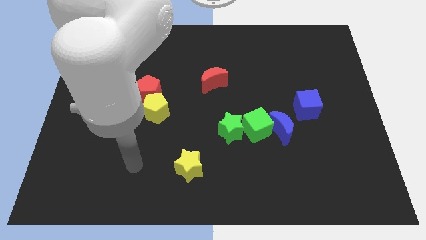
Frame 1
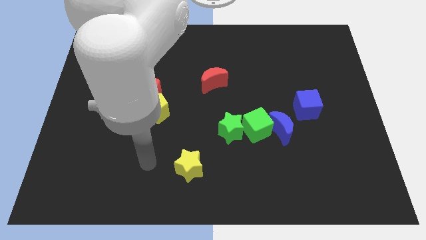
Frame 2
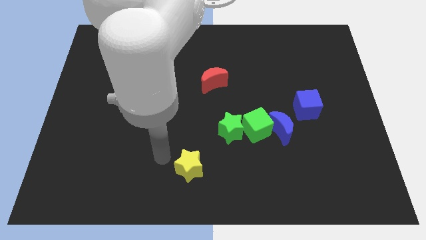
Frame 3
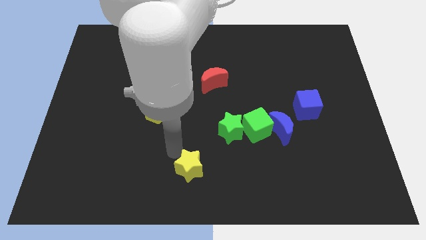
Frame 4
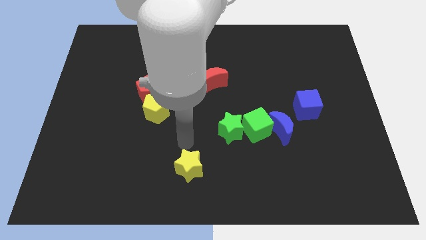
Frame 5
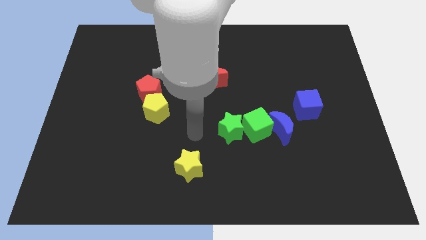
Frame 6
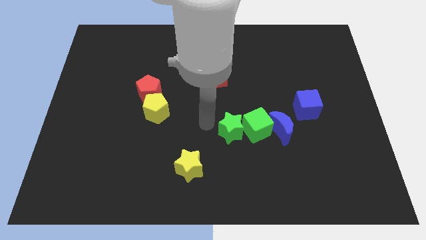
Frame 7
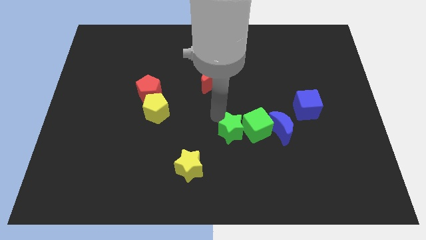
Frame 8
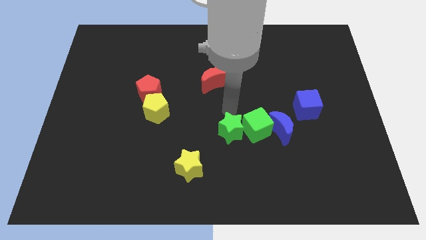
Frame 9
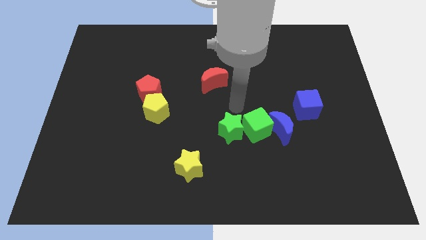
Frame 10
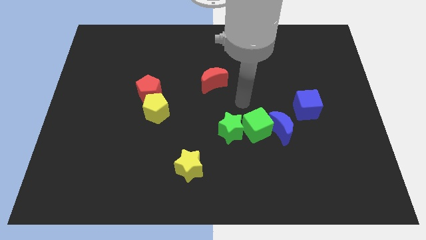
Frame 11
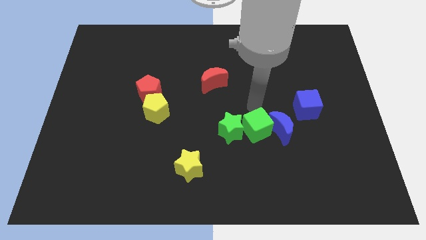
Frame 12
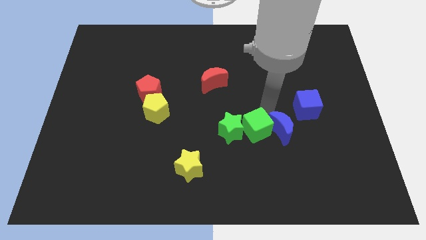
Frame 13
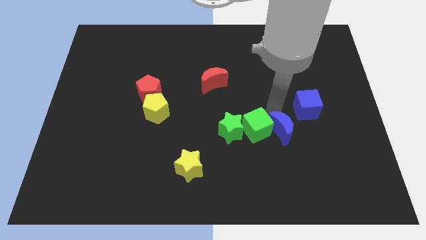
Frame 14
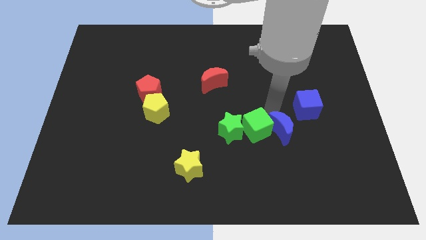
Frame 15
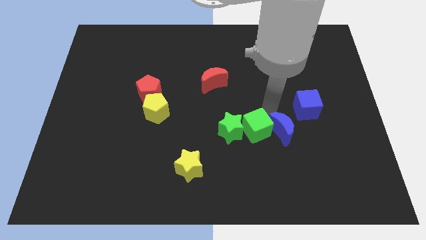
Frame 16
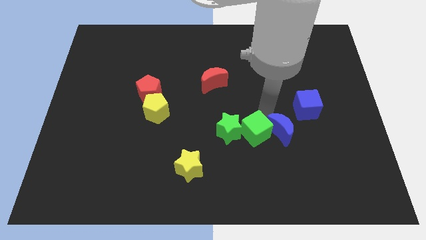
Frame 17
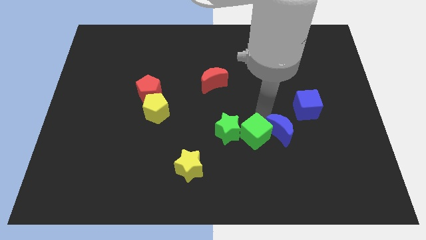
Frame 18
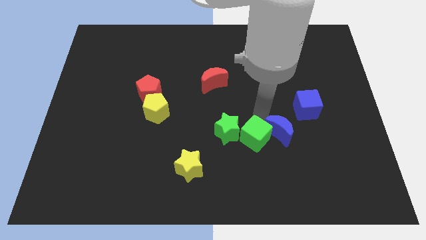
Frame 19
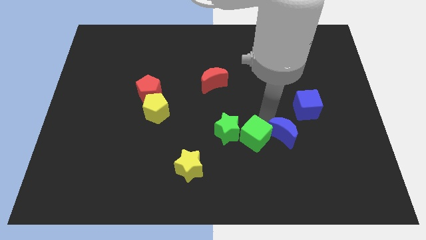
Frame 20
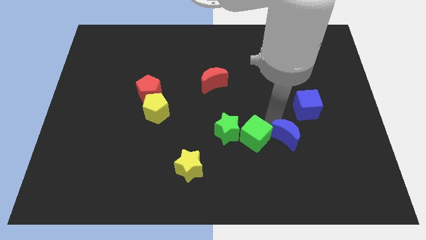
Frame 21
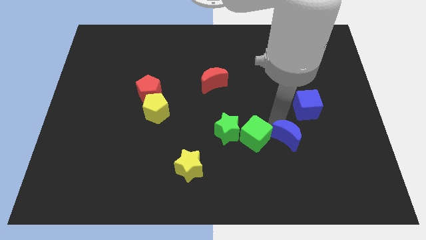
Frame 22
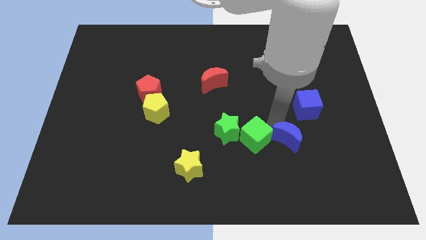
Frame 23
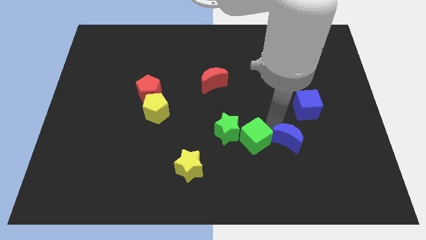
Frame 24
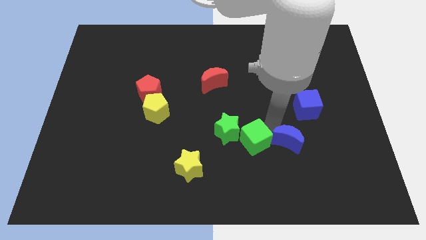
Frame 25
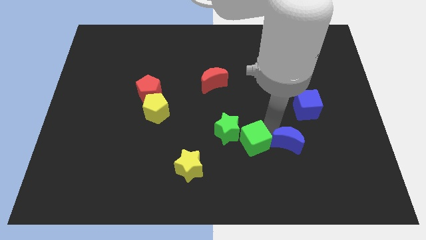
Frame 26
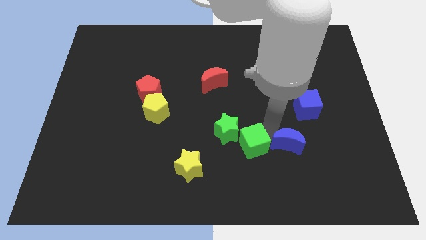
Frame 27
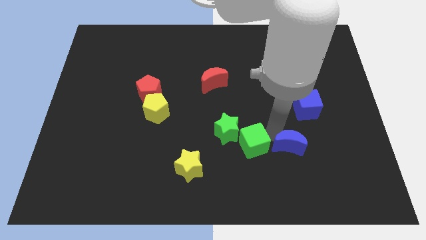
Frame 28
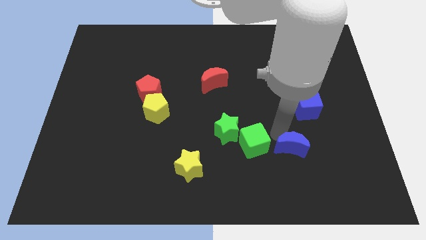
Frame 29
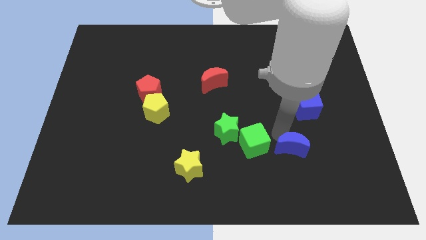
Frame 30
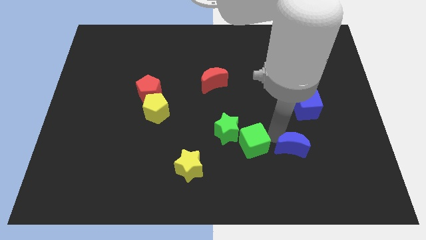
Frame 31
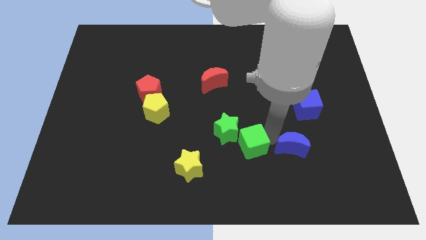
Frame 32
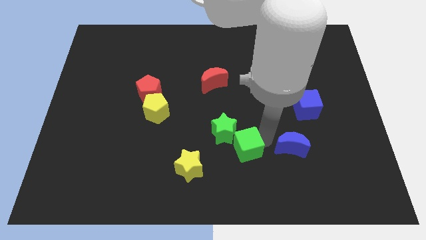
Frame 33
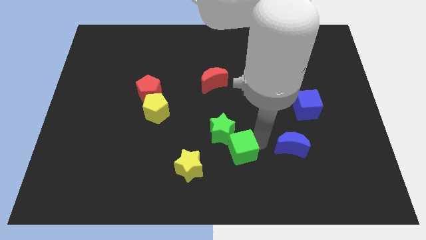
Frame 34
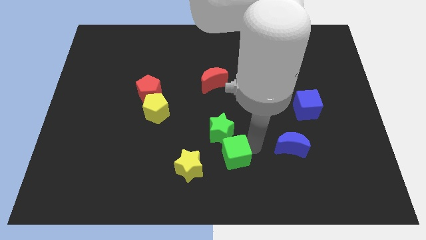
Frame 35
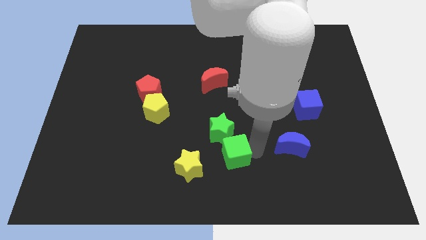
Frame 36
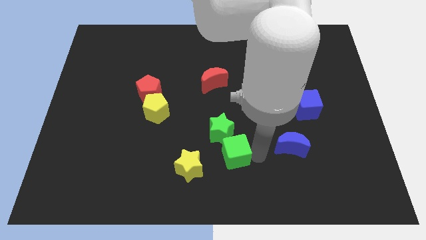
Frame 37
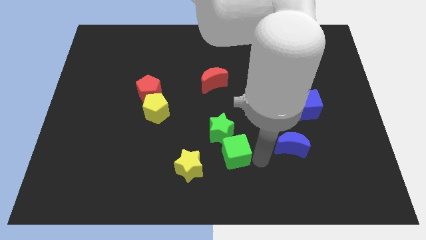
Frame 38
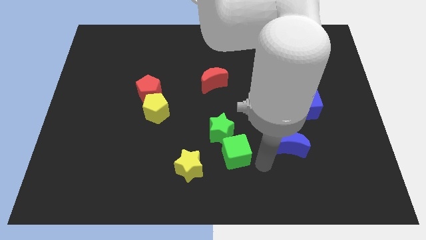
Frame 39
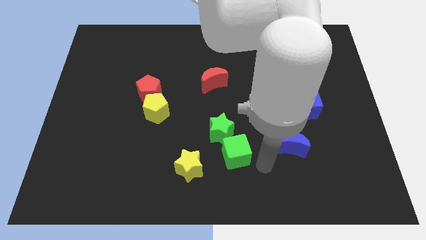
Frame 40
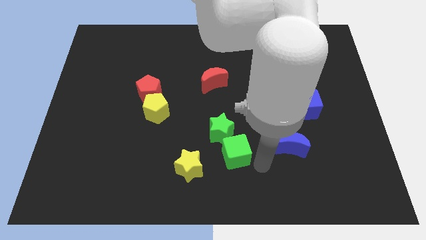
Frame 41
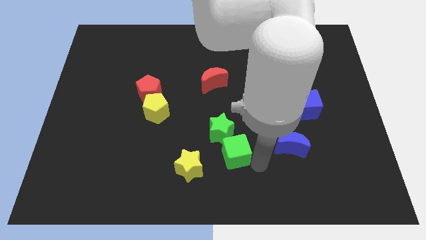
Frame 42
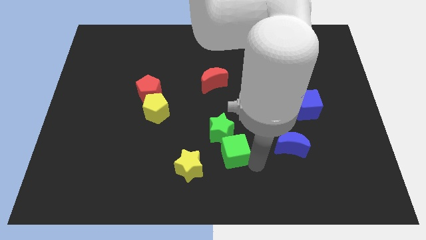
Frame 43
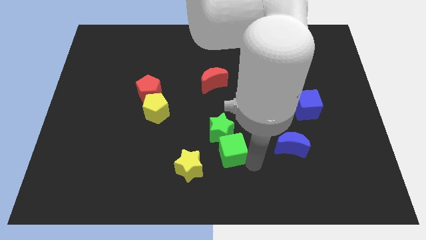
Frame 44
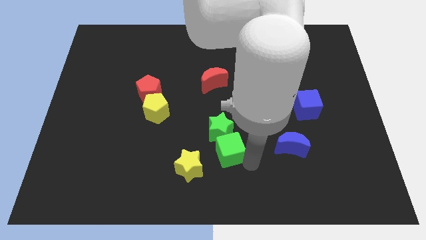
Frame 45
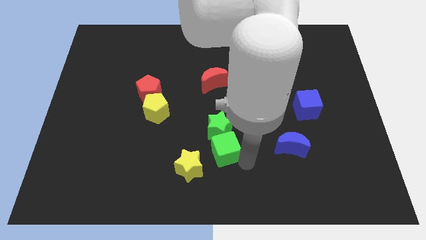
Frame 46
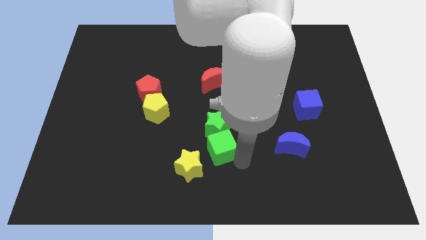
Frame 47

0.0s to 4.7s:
slightly move the green cube left

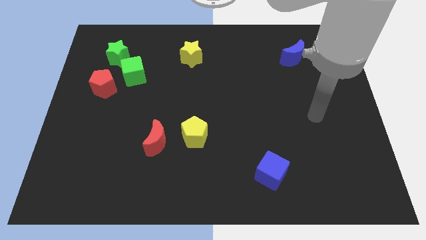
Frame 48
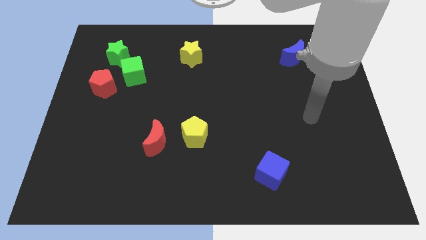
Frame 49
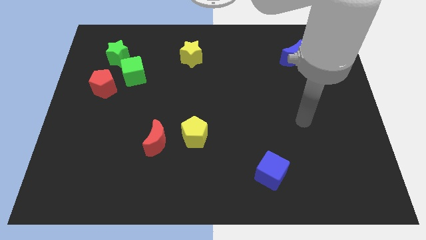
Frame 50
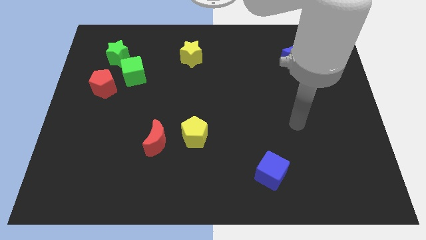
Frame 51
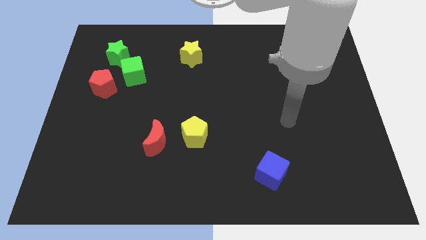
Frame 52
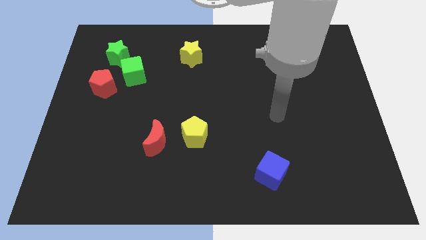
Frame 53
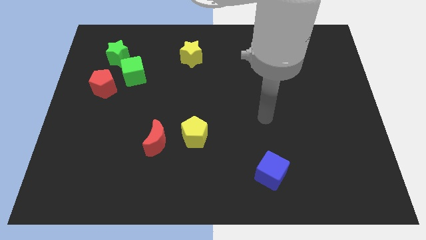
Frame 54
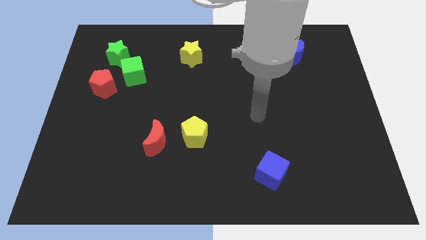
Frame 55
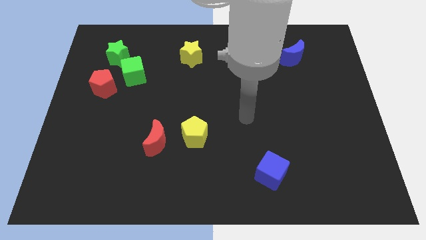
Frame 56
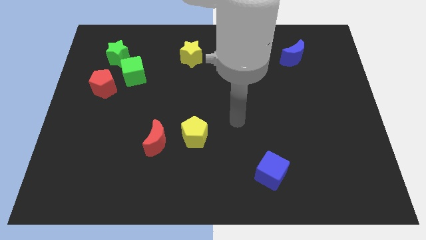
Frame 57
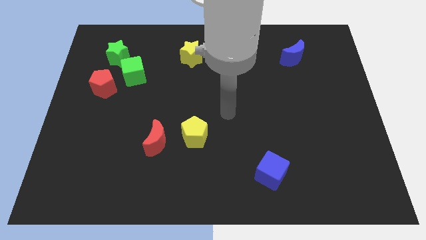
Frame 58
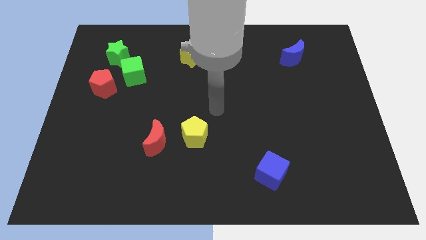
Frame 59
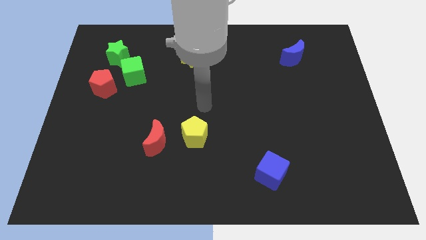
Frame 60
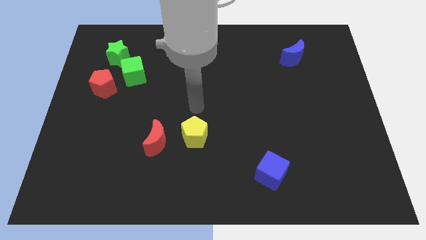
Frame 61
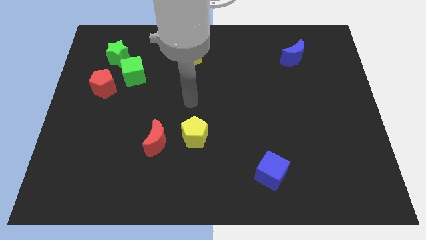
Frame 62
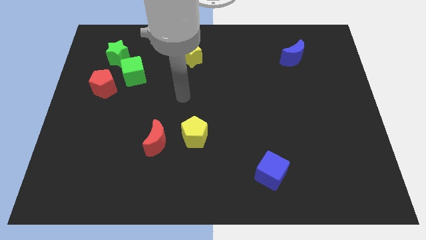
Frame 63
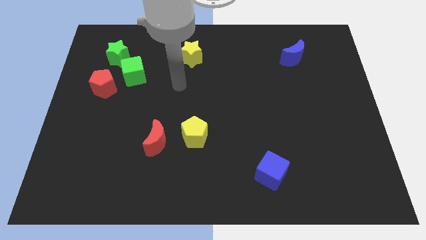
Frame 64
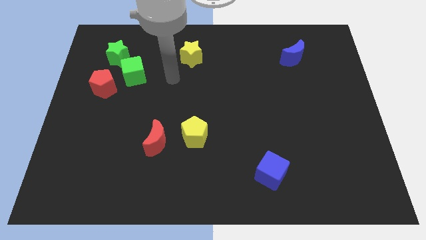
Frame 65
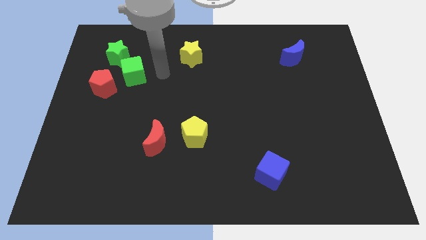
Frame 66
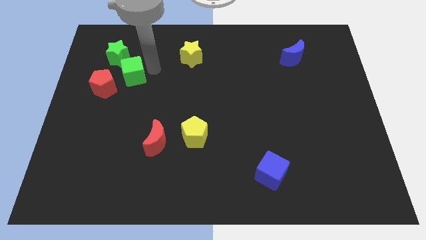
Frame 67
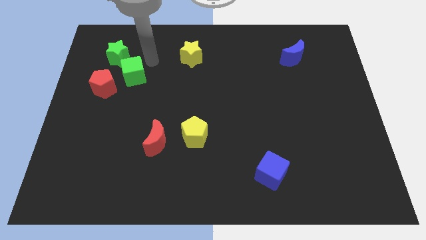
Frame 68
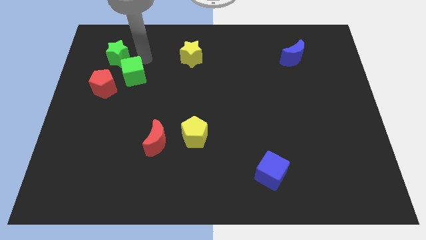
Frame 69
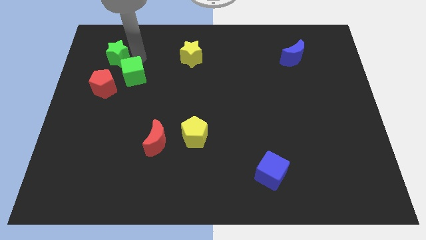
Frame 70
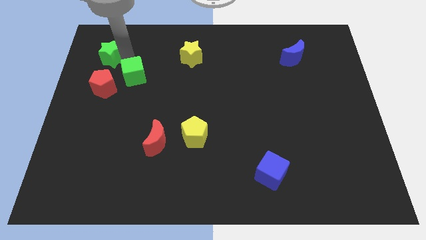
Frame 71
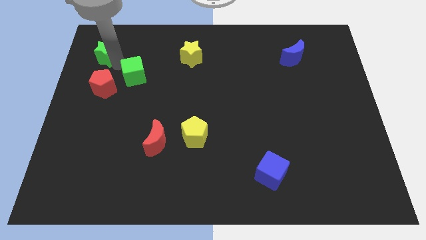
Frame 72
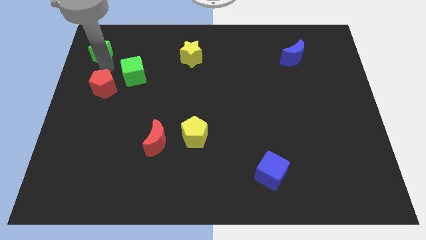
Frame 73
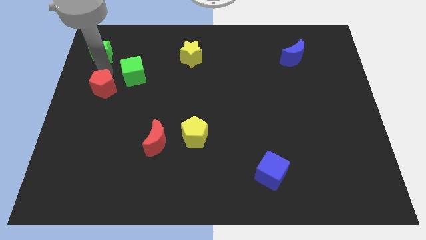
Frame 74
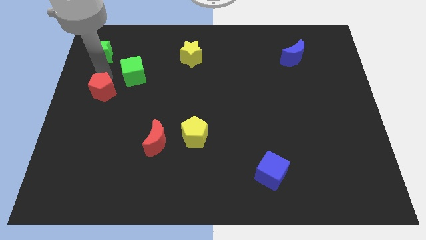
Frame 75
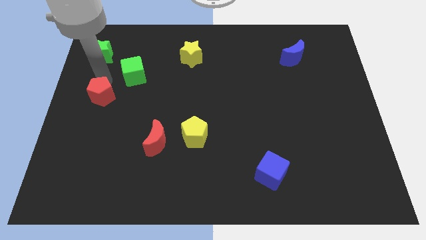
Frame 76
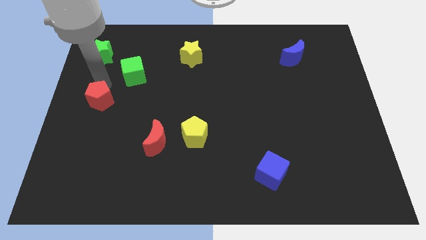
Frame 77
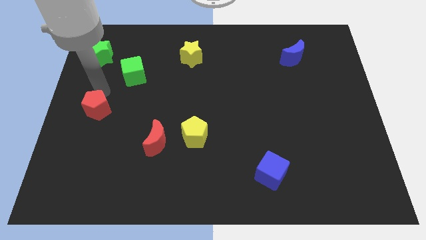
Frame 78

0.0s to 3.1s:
push the red pentagon a bit down

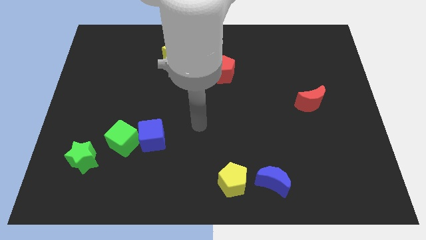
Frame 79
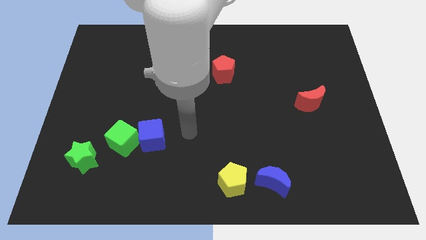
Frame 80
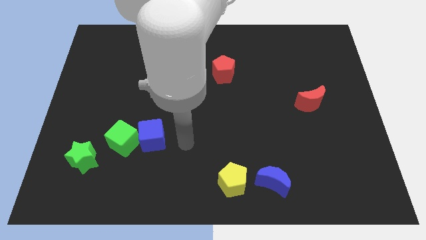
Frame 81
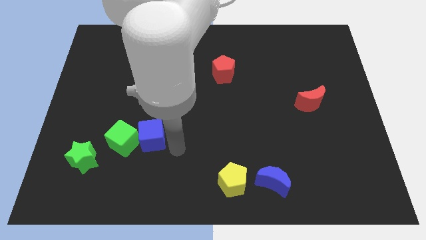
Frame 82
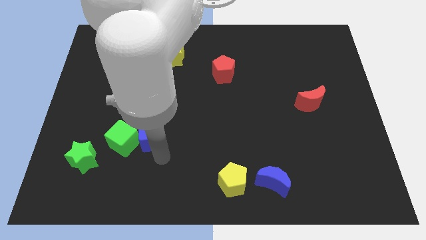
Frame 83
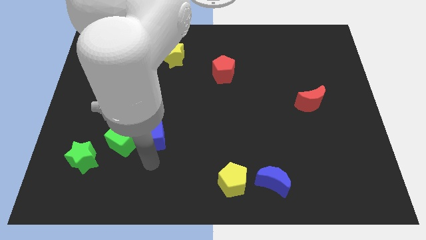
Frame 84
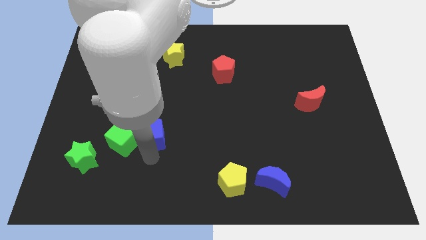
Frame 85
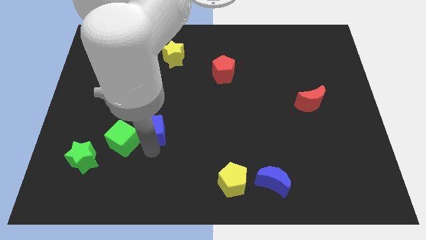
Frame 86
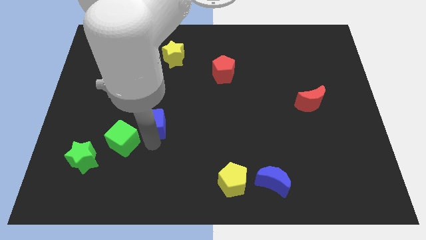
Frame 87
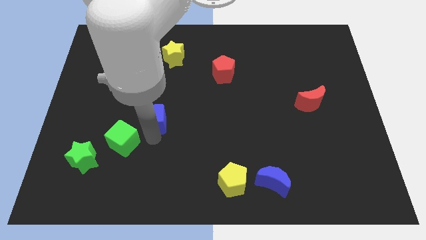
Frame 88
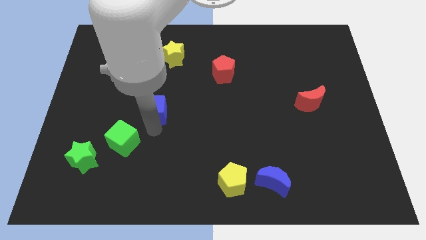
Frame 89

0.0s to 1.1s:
move the blue cube slightly upwards
